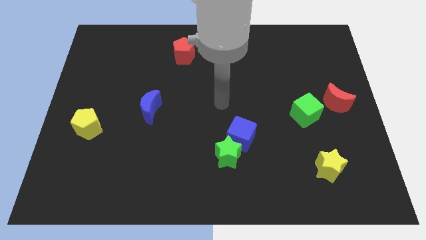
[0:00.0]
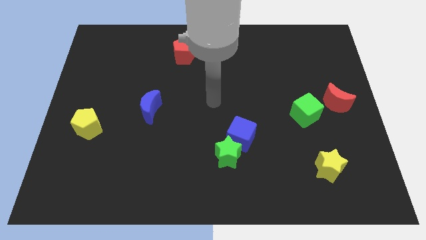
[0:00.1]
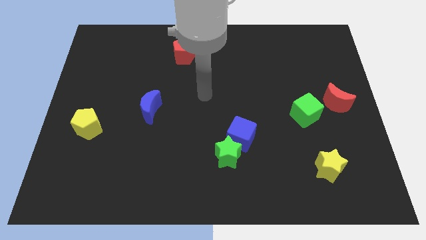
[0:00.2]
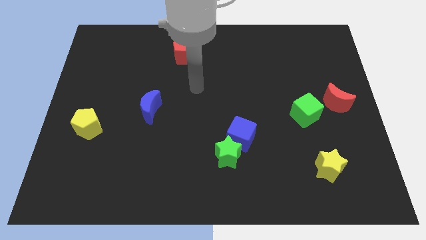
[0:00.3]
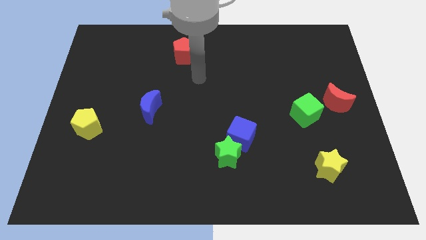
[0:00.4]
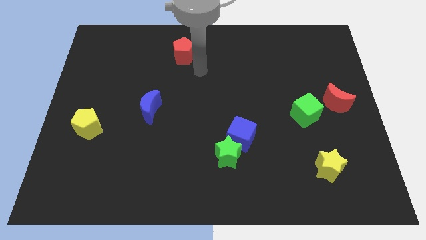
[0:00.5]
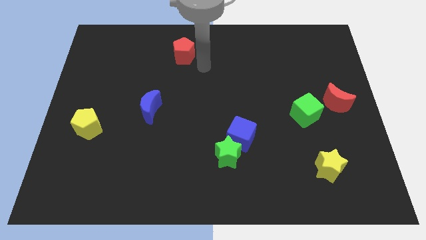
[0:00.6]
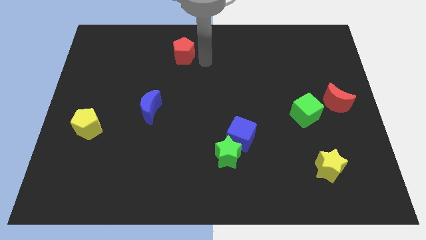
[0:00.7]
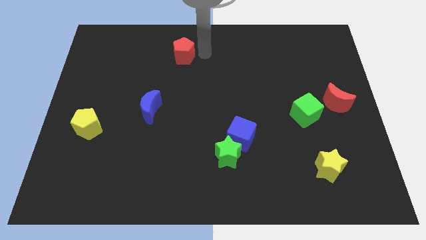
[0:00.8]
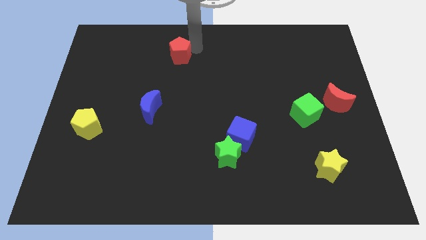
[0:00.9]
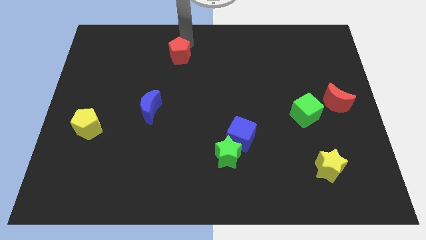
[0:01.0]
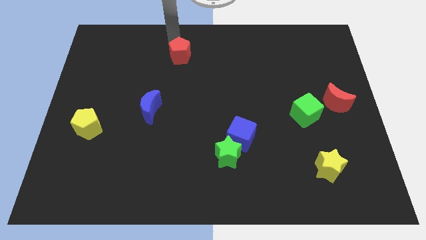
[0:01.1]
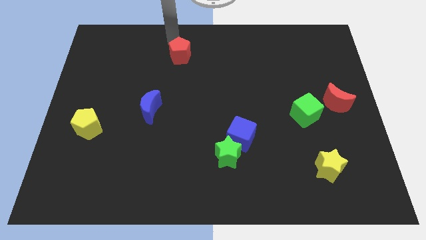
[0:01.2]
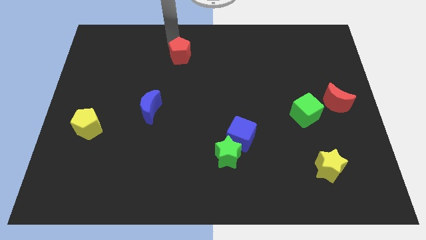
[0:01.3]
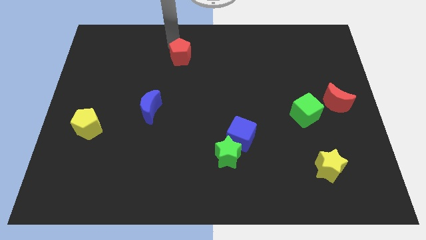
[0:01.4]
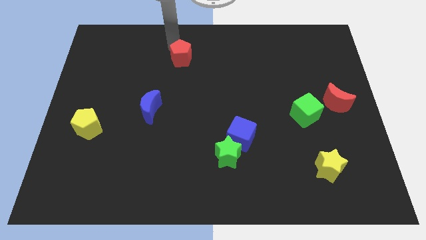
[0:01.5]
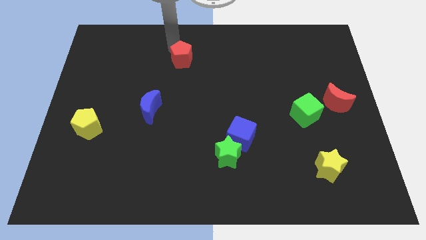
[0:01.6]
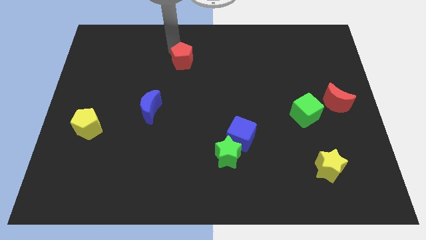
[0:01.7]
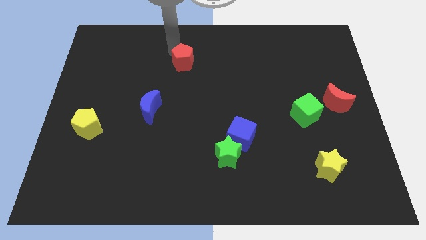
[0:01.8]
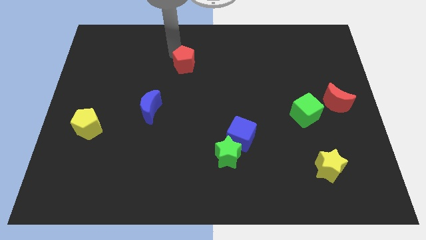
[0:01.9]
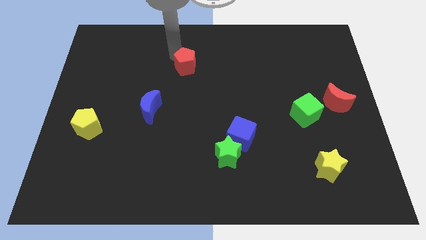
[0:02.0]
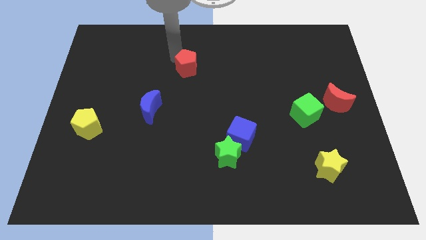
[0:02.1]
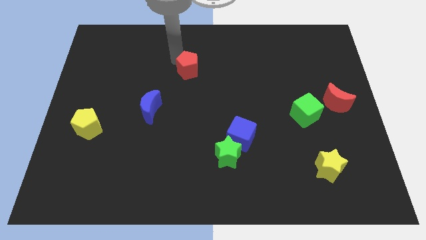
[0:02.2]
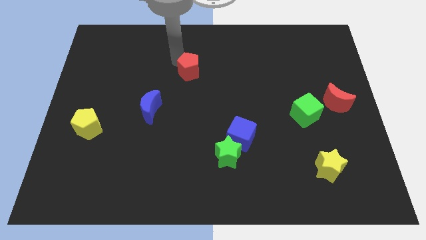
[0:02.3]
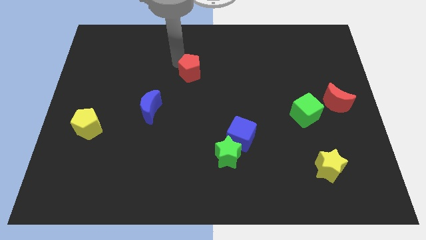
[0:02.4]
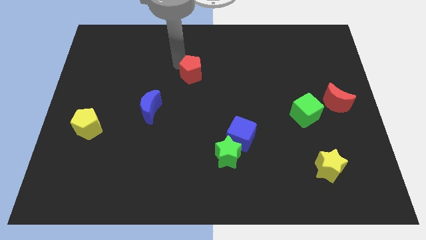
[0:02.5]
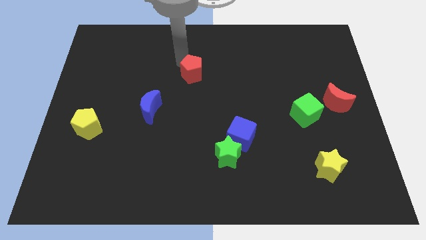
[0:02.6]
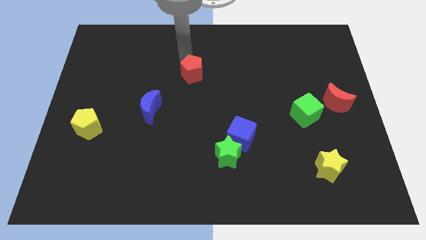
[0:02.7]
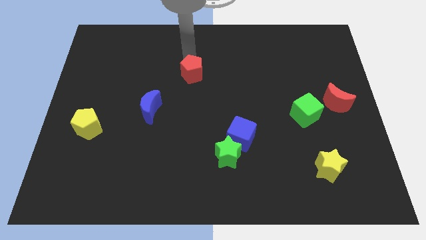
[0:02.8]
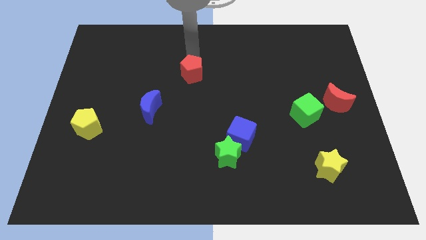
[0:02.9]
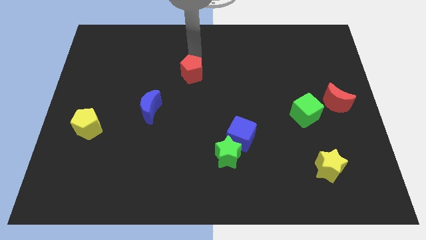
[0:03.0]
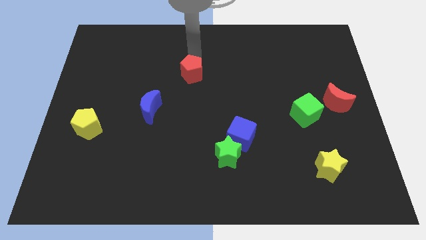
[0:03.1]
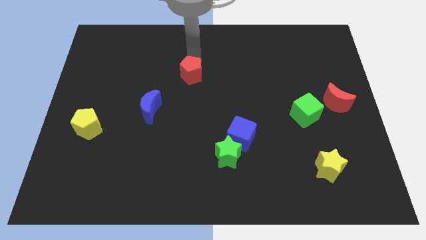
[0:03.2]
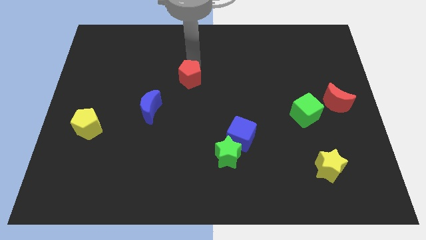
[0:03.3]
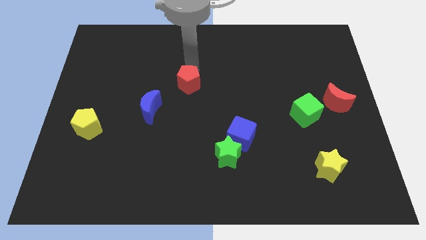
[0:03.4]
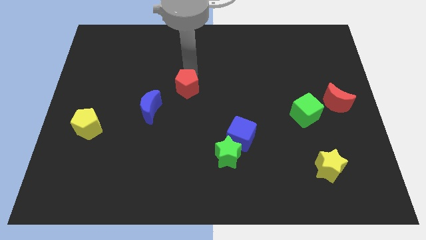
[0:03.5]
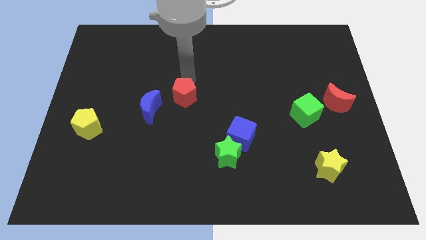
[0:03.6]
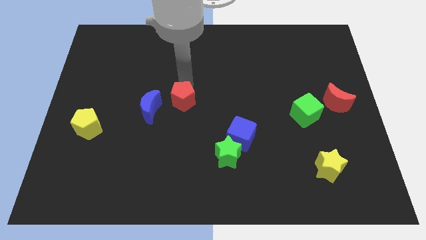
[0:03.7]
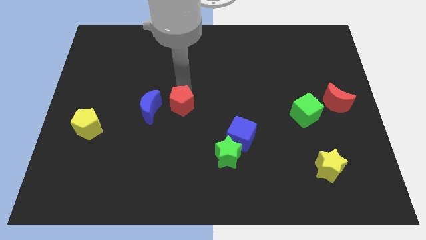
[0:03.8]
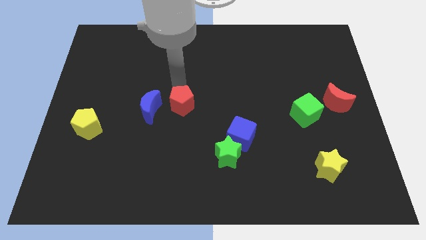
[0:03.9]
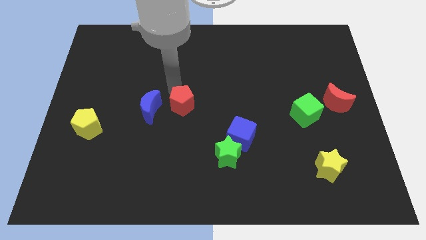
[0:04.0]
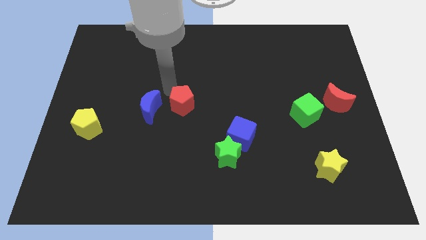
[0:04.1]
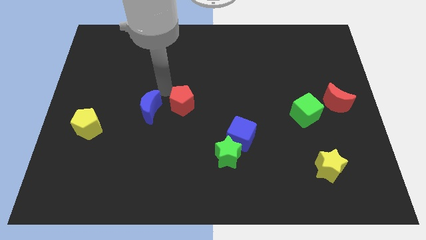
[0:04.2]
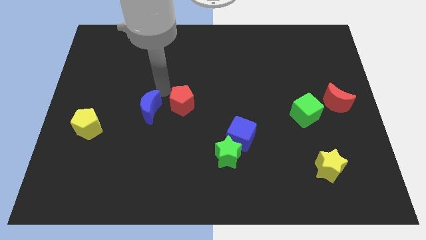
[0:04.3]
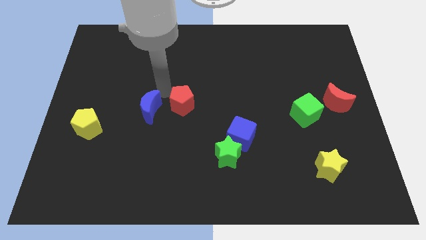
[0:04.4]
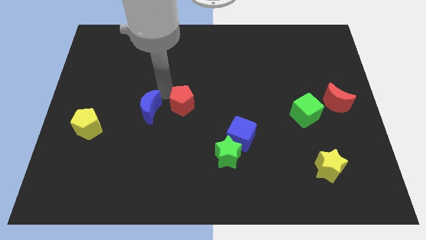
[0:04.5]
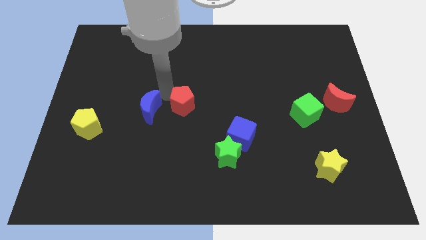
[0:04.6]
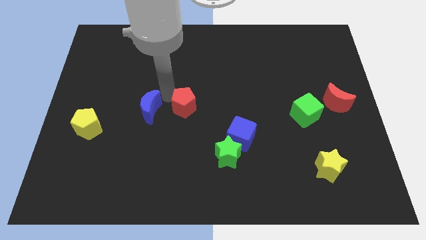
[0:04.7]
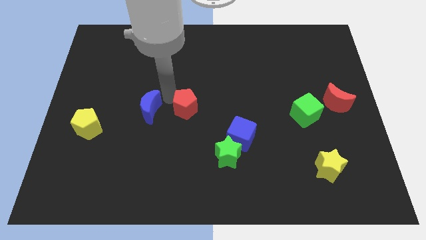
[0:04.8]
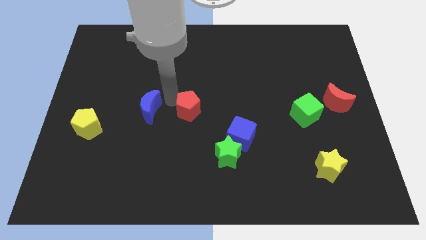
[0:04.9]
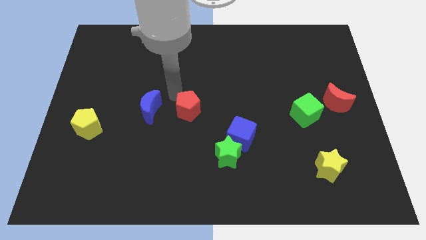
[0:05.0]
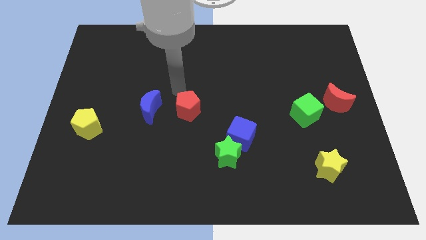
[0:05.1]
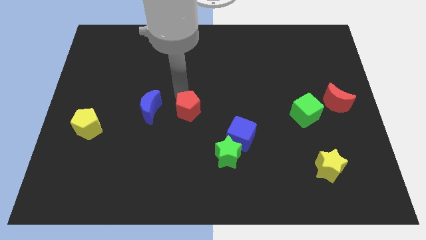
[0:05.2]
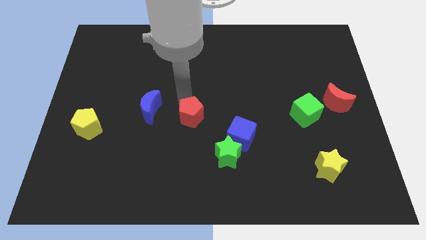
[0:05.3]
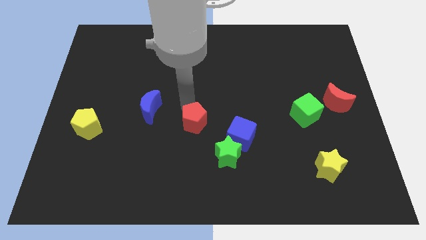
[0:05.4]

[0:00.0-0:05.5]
move the red pentagon to the top left of the green star

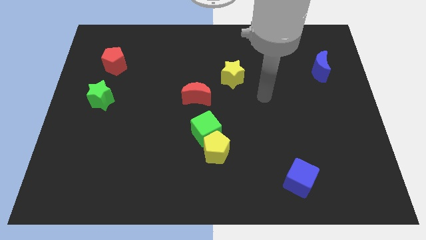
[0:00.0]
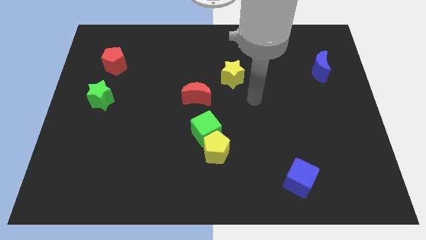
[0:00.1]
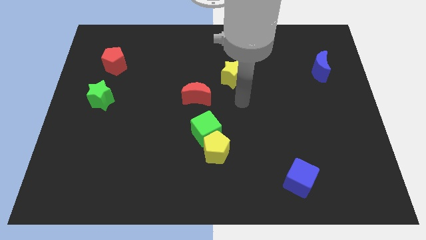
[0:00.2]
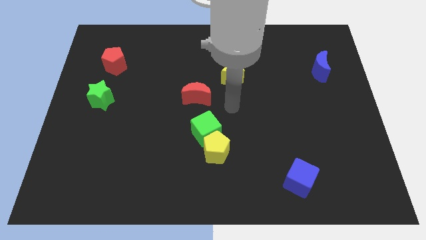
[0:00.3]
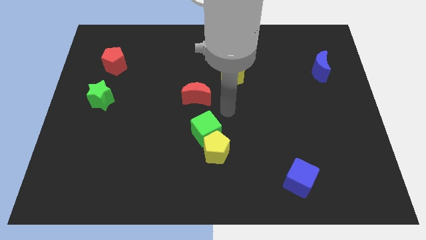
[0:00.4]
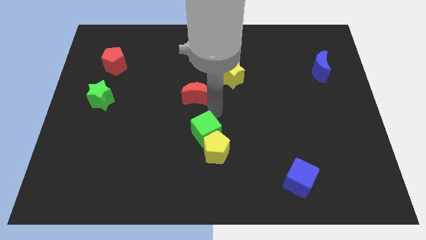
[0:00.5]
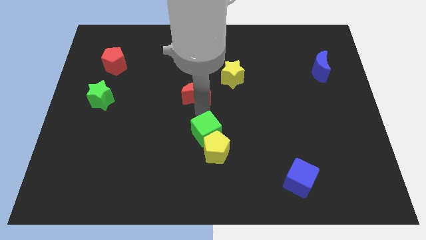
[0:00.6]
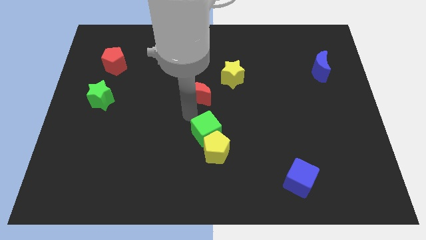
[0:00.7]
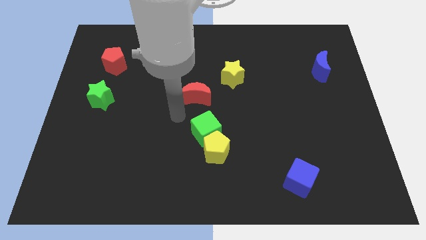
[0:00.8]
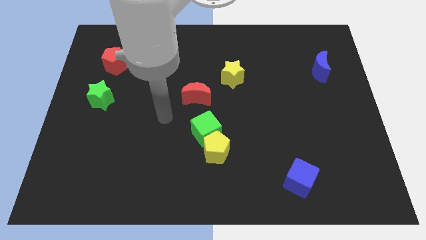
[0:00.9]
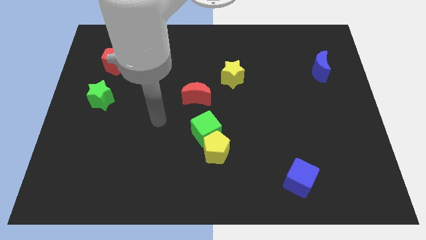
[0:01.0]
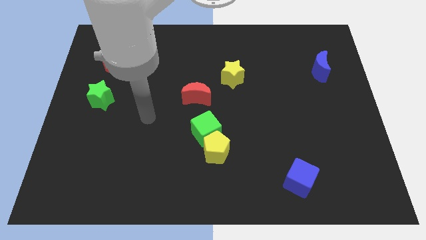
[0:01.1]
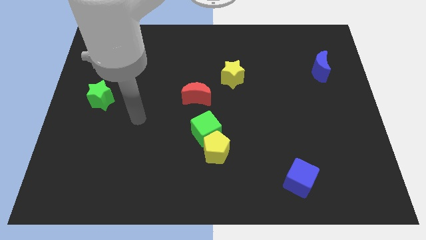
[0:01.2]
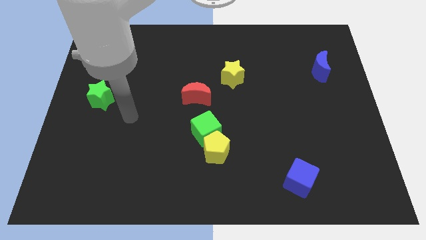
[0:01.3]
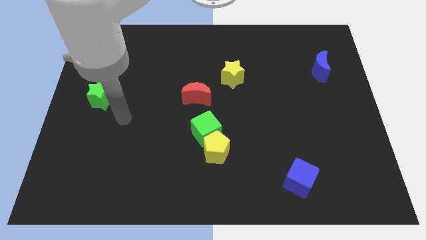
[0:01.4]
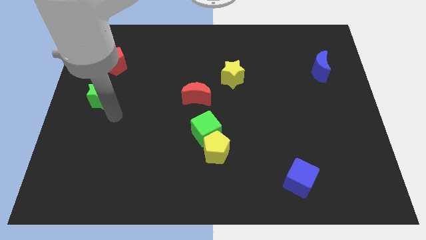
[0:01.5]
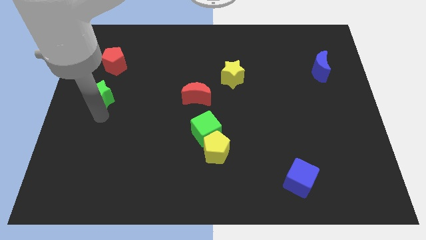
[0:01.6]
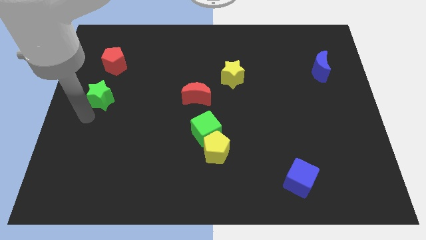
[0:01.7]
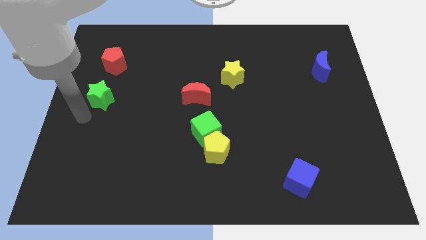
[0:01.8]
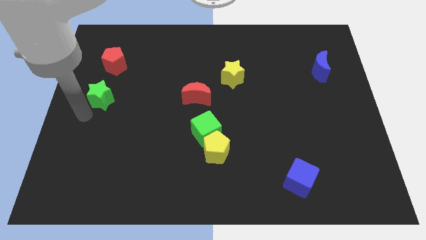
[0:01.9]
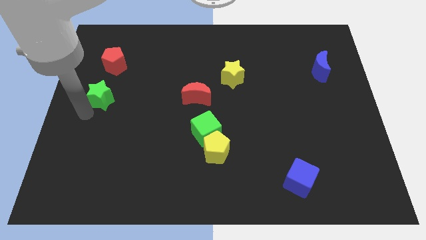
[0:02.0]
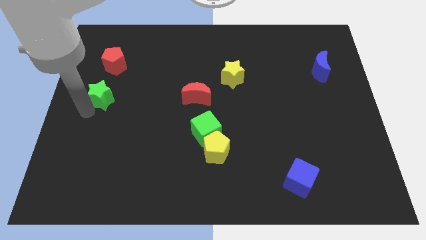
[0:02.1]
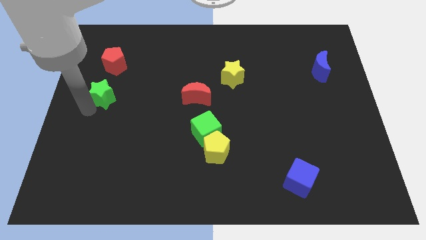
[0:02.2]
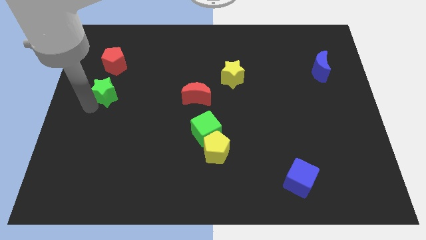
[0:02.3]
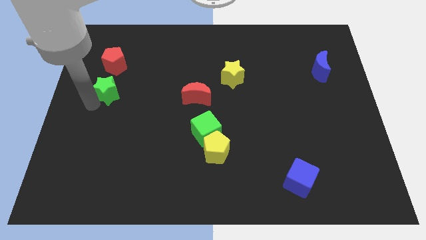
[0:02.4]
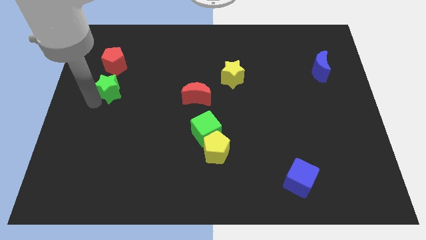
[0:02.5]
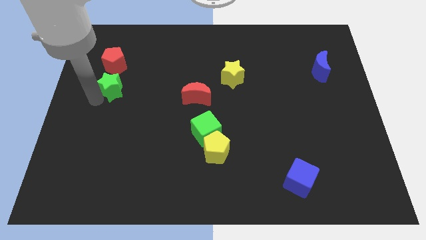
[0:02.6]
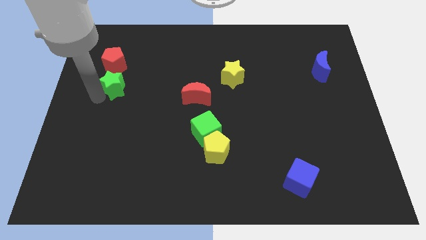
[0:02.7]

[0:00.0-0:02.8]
push the green star diagonally down and to the right of the red pentagon
